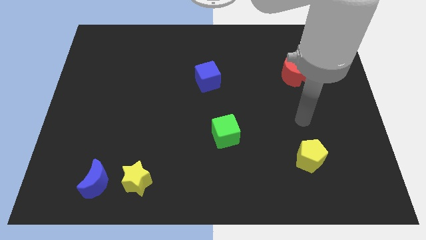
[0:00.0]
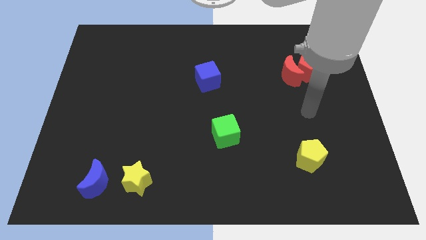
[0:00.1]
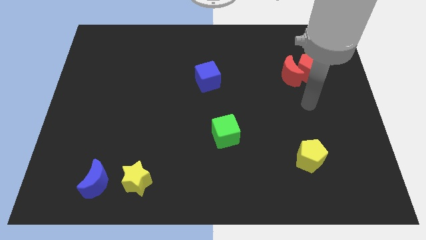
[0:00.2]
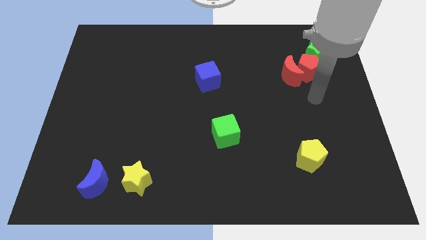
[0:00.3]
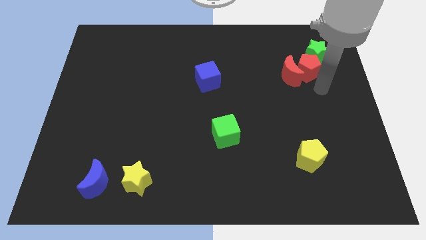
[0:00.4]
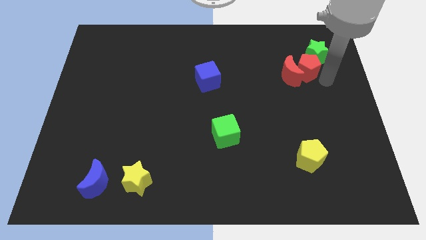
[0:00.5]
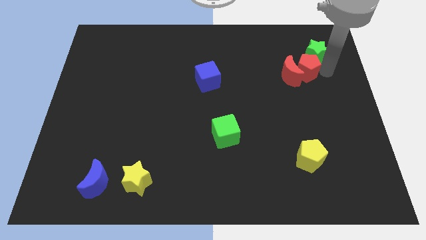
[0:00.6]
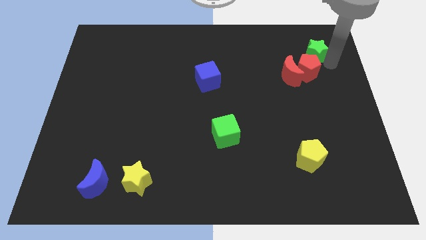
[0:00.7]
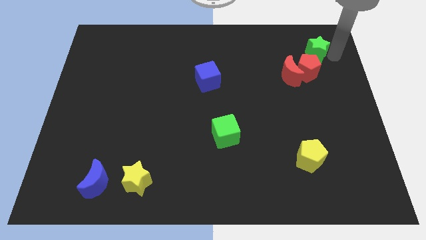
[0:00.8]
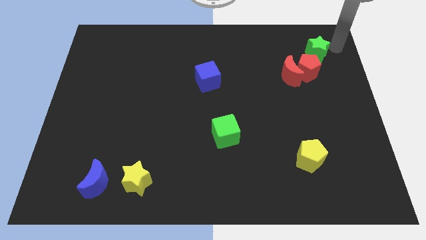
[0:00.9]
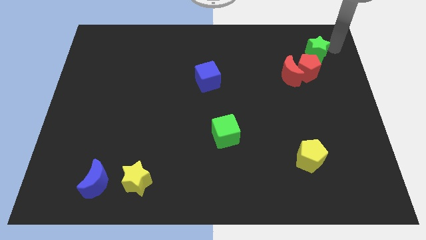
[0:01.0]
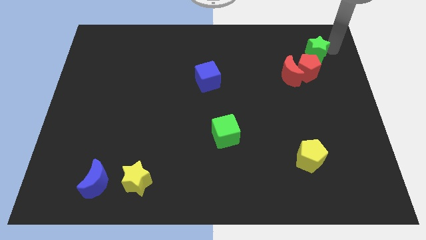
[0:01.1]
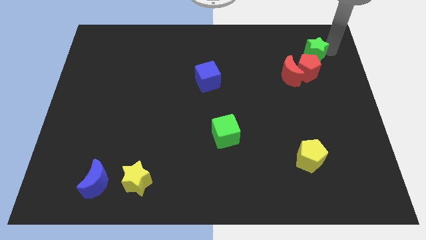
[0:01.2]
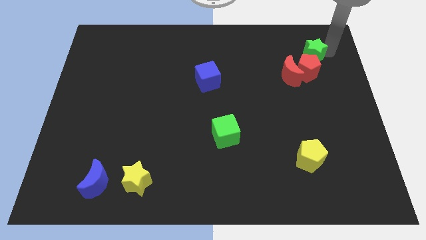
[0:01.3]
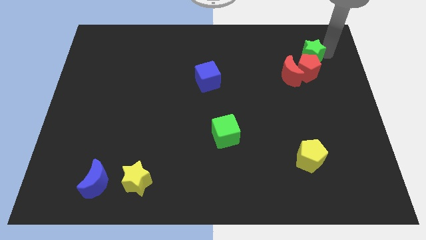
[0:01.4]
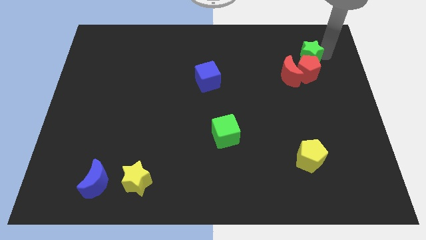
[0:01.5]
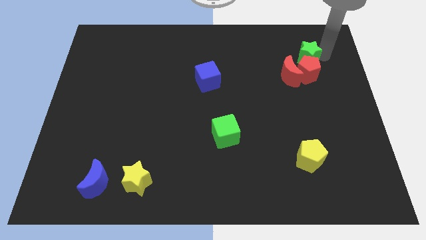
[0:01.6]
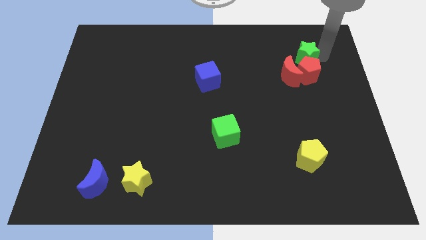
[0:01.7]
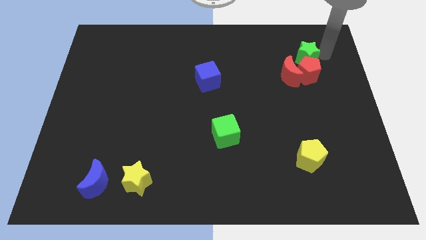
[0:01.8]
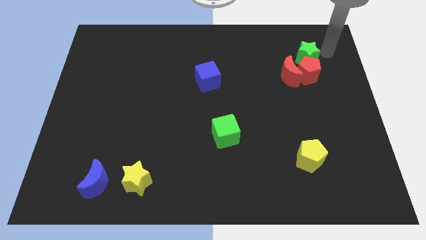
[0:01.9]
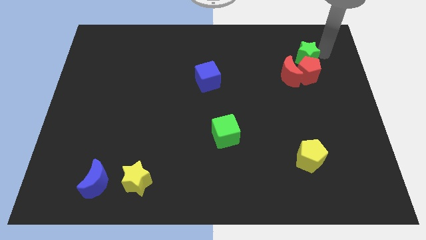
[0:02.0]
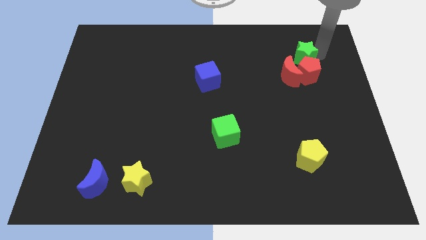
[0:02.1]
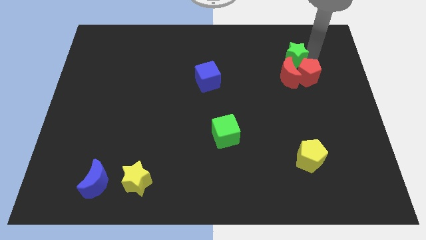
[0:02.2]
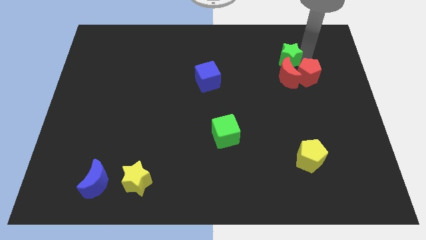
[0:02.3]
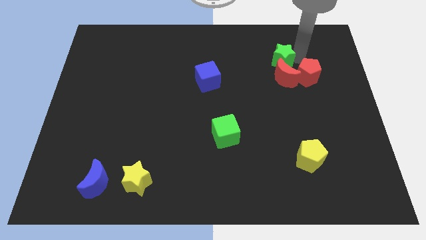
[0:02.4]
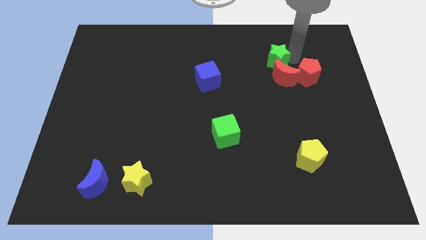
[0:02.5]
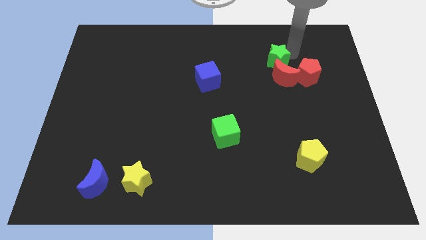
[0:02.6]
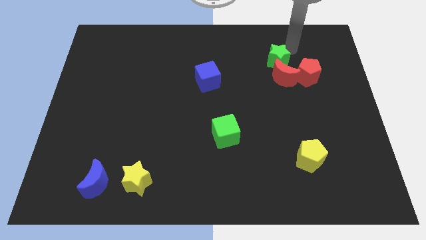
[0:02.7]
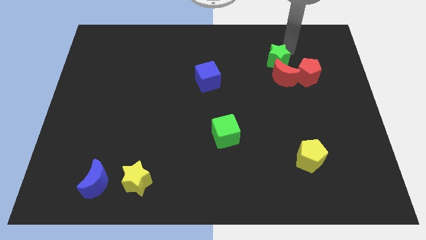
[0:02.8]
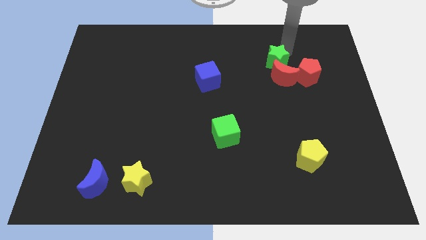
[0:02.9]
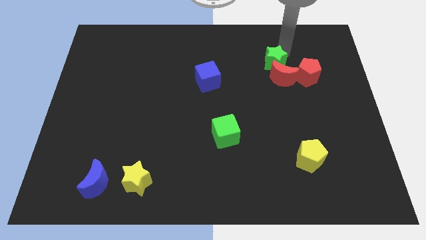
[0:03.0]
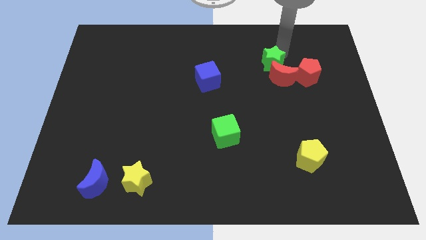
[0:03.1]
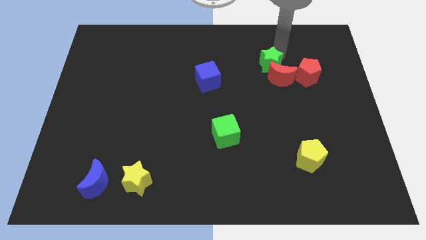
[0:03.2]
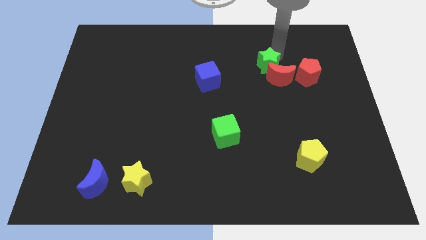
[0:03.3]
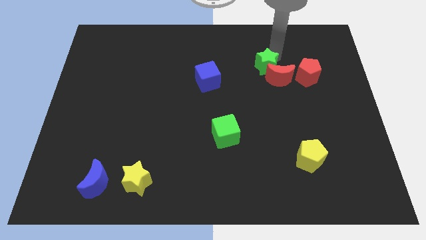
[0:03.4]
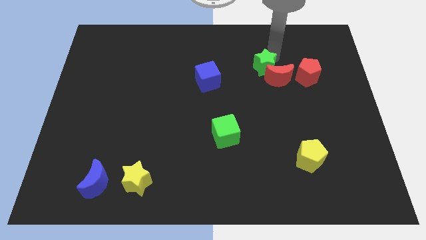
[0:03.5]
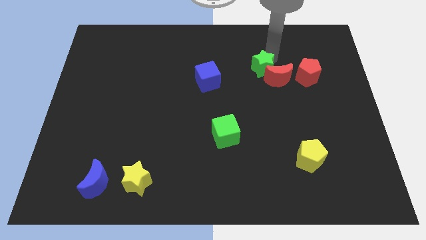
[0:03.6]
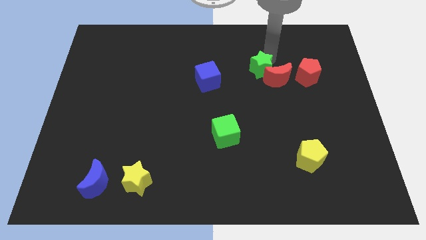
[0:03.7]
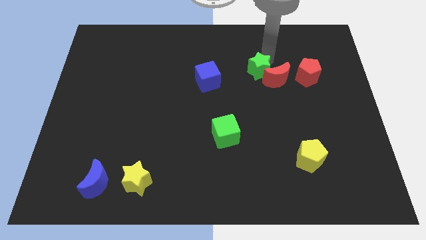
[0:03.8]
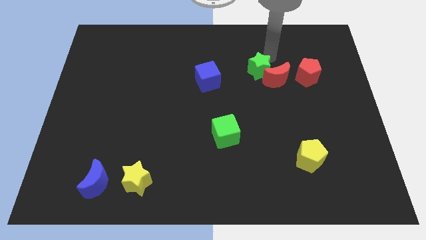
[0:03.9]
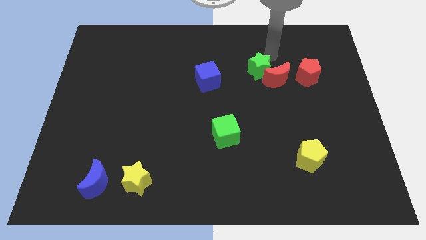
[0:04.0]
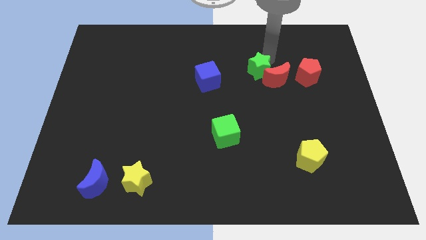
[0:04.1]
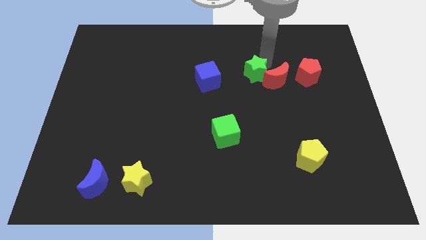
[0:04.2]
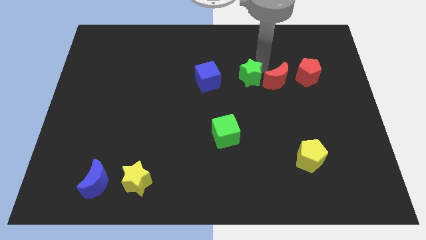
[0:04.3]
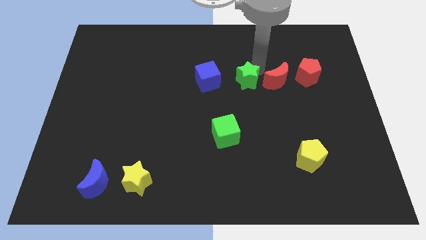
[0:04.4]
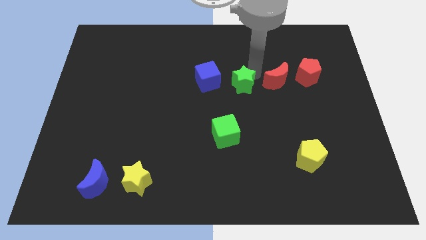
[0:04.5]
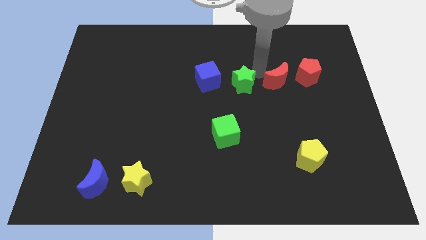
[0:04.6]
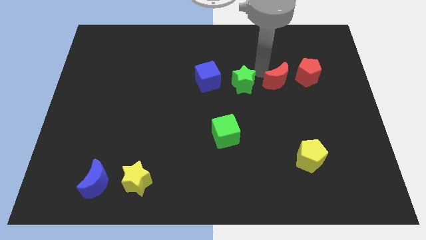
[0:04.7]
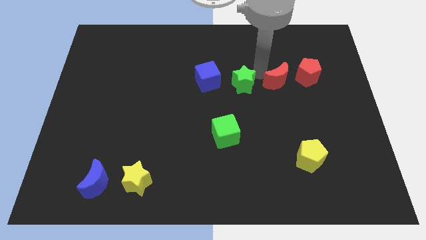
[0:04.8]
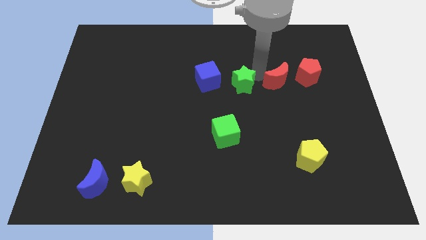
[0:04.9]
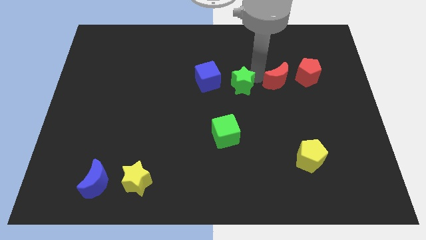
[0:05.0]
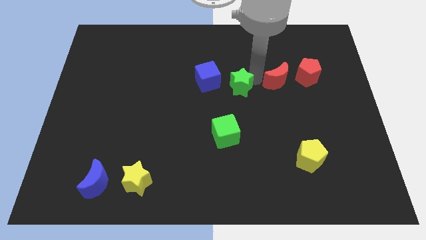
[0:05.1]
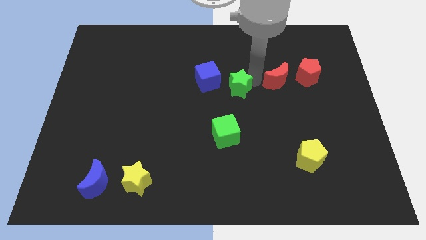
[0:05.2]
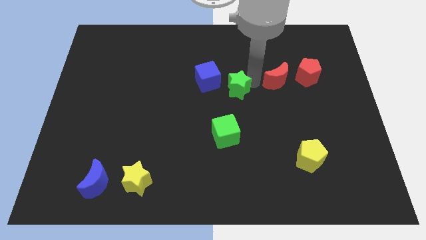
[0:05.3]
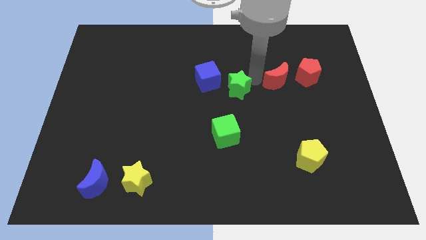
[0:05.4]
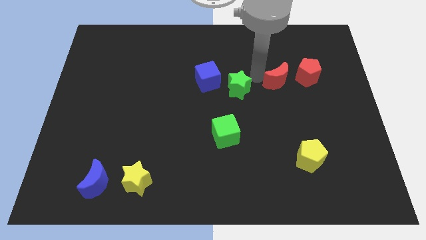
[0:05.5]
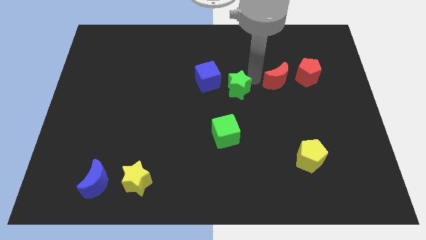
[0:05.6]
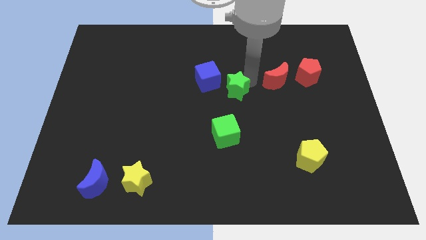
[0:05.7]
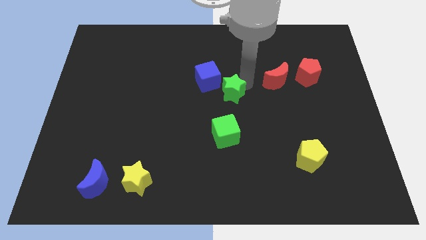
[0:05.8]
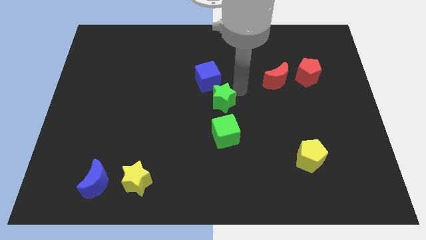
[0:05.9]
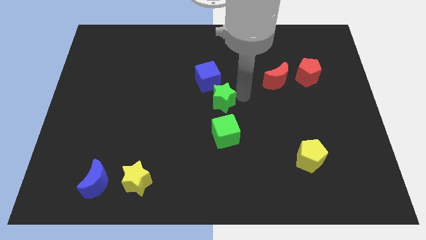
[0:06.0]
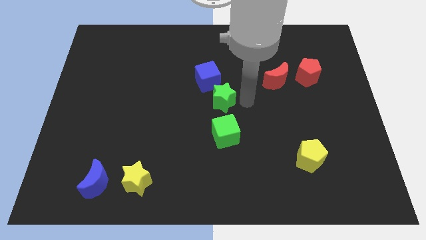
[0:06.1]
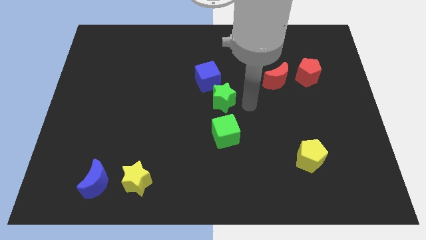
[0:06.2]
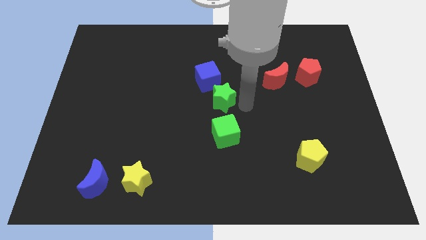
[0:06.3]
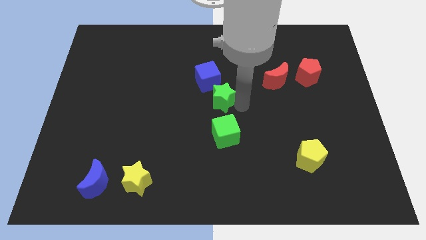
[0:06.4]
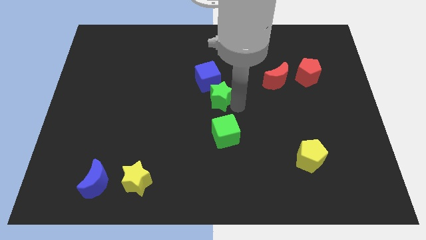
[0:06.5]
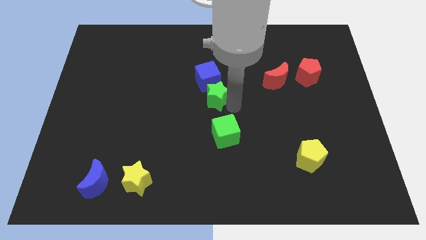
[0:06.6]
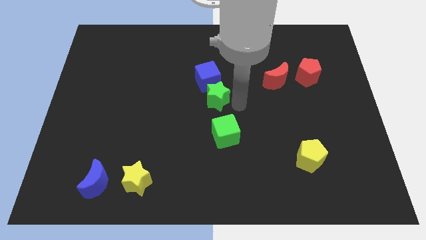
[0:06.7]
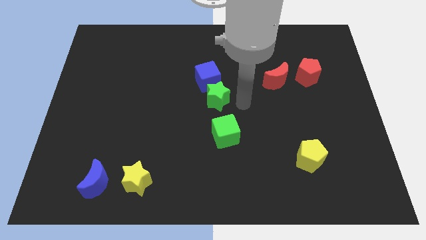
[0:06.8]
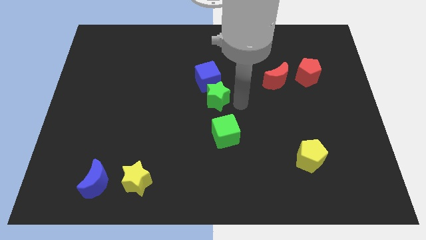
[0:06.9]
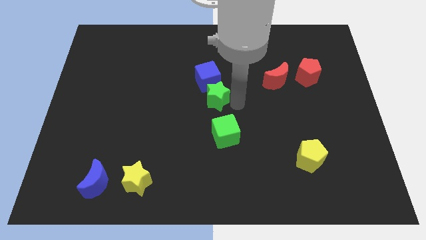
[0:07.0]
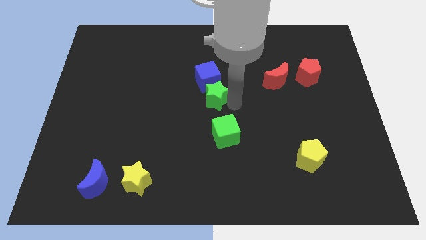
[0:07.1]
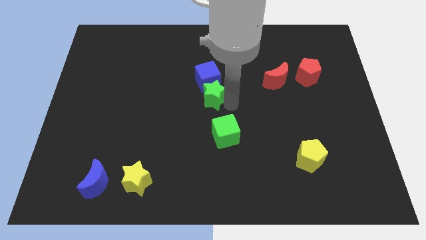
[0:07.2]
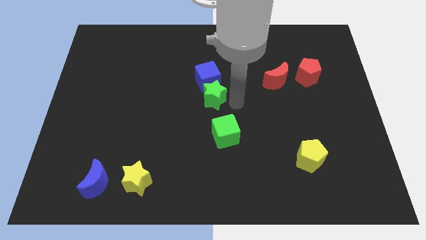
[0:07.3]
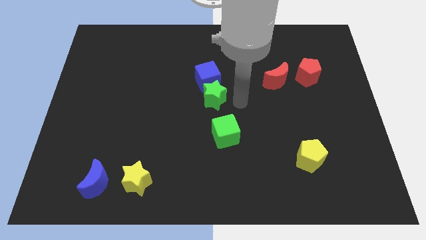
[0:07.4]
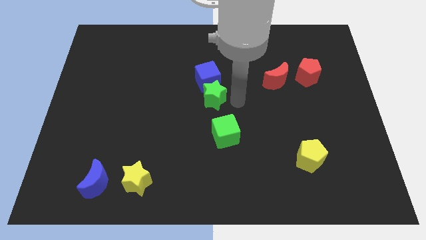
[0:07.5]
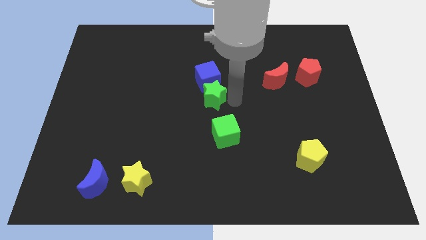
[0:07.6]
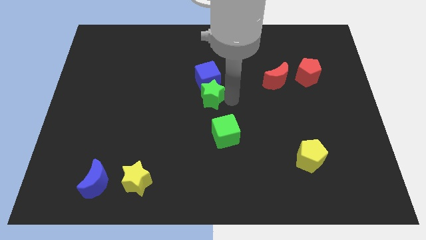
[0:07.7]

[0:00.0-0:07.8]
slide the green star diagonally down and to the left of the blue cube
